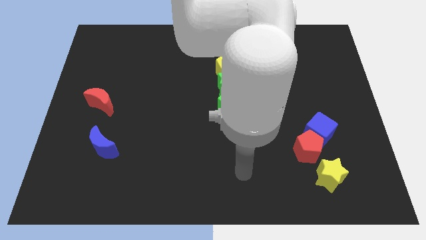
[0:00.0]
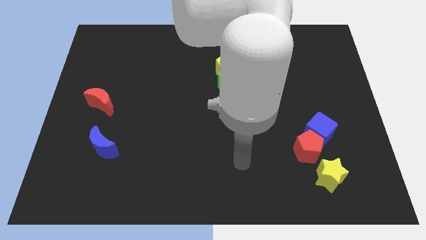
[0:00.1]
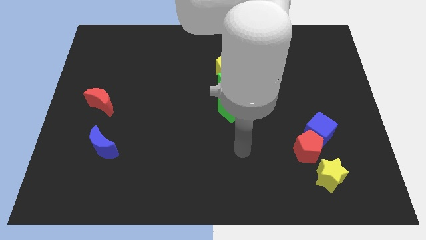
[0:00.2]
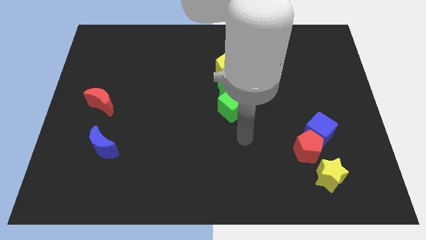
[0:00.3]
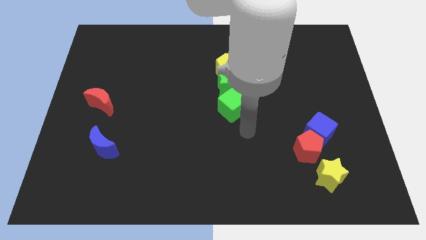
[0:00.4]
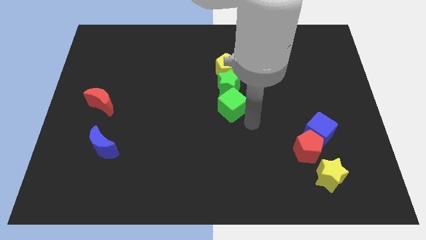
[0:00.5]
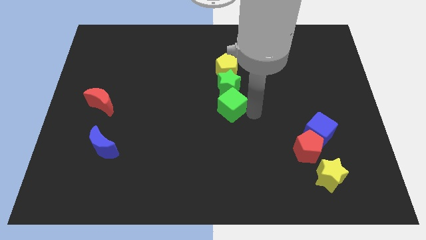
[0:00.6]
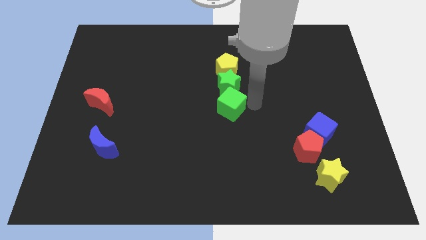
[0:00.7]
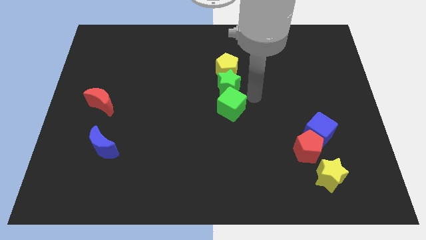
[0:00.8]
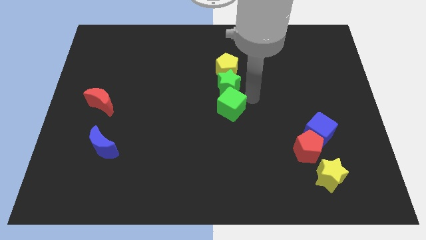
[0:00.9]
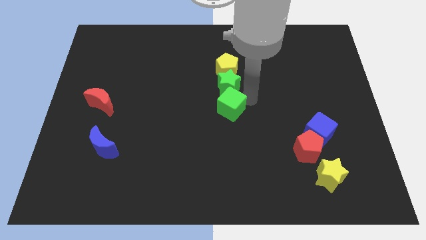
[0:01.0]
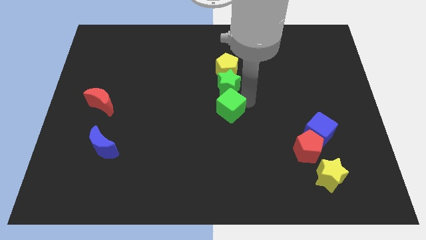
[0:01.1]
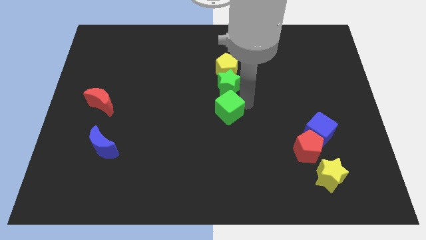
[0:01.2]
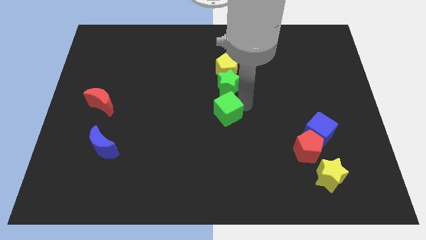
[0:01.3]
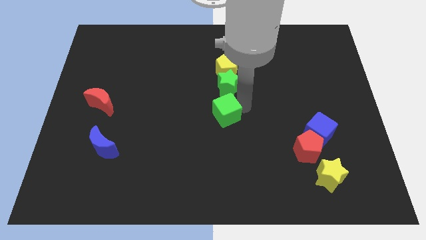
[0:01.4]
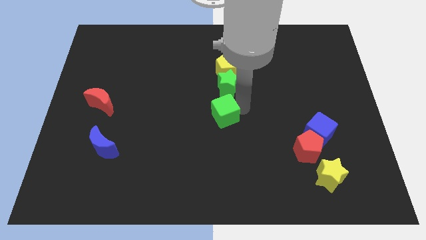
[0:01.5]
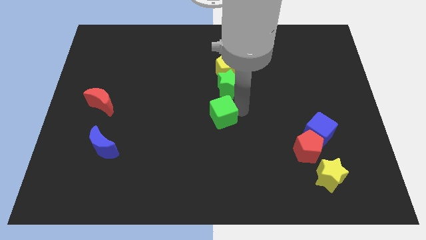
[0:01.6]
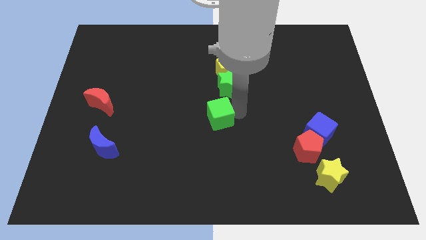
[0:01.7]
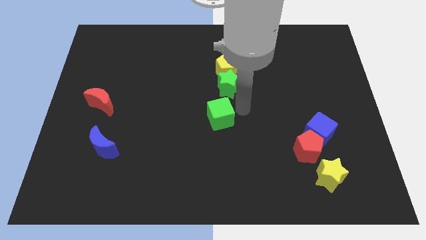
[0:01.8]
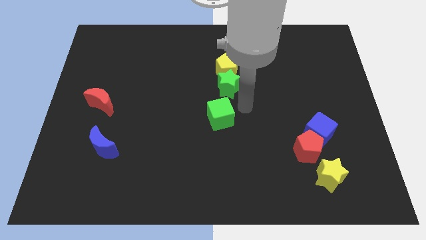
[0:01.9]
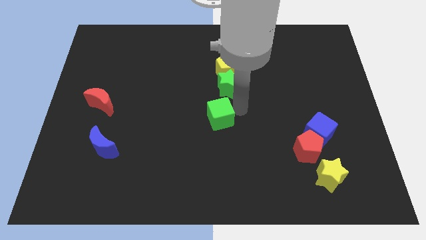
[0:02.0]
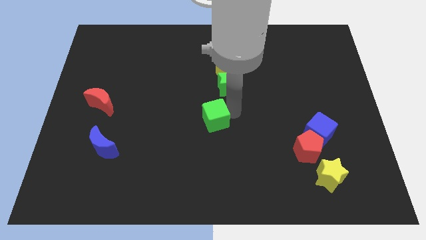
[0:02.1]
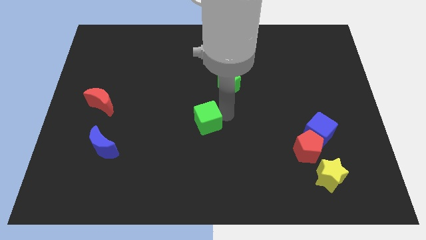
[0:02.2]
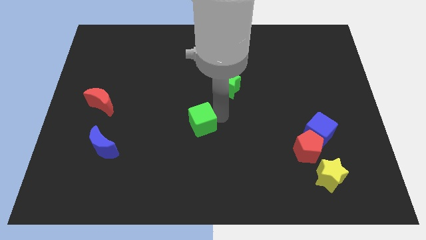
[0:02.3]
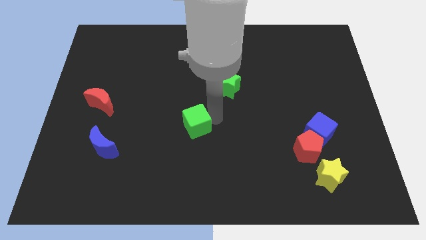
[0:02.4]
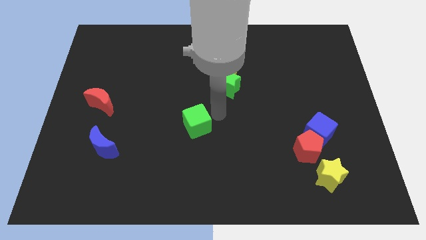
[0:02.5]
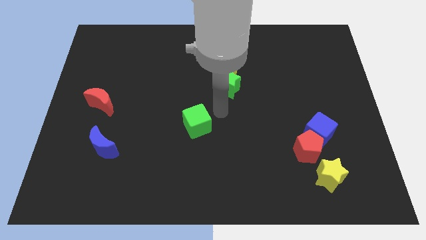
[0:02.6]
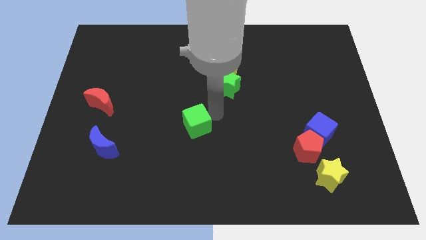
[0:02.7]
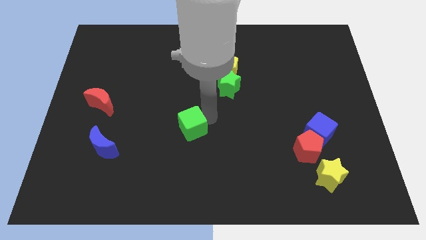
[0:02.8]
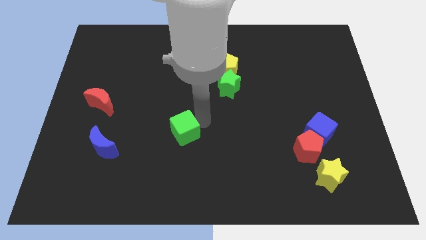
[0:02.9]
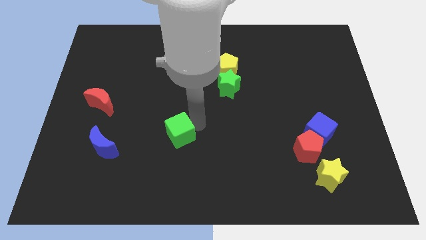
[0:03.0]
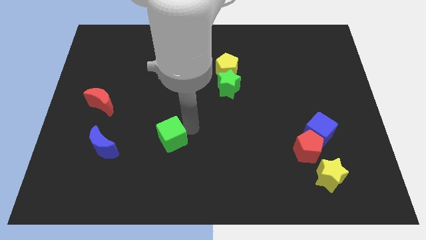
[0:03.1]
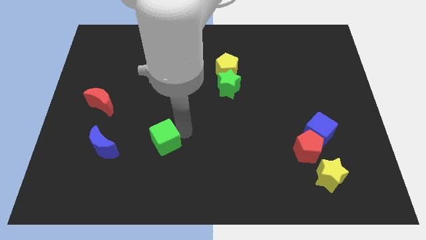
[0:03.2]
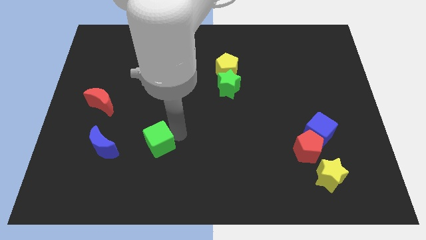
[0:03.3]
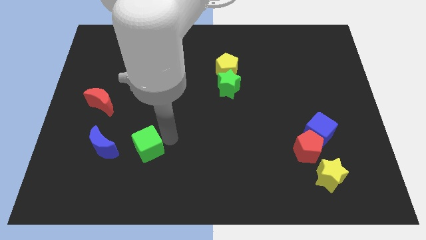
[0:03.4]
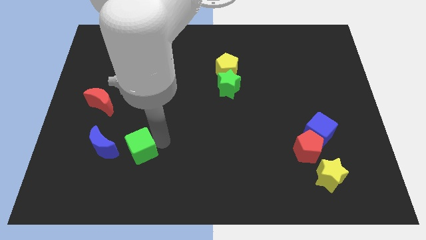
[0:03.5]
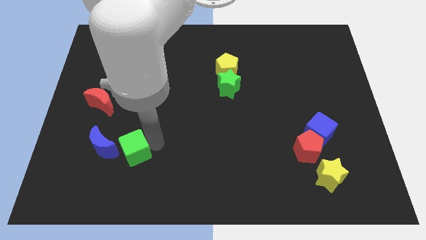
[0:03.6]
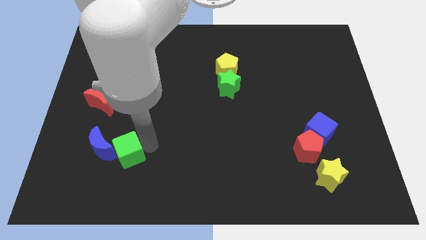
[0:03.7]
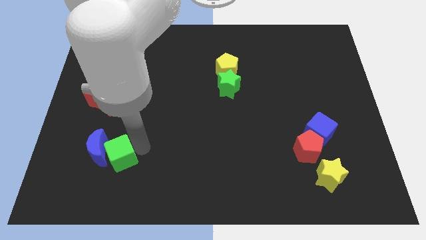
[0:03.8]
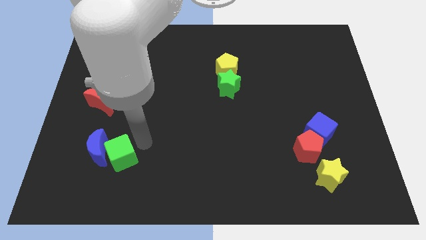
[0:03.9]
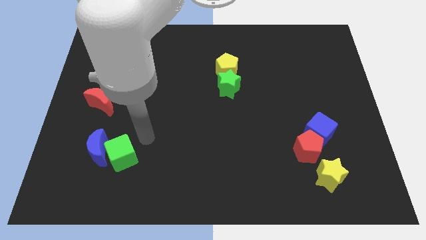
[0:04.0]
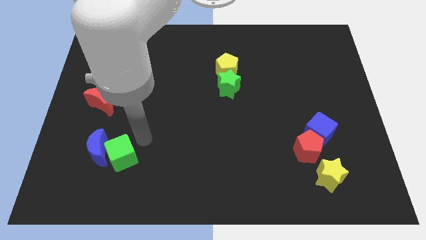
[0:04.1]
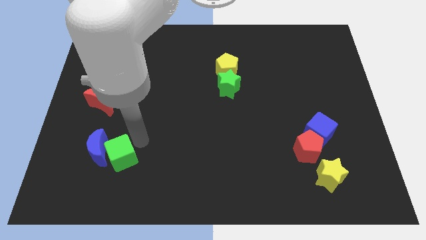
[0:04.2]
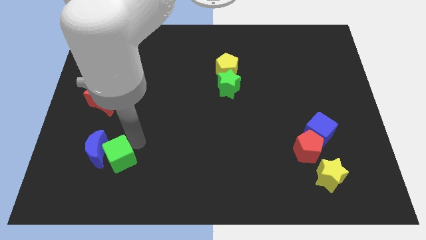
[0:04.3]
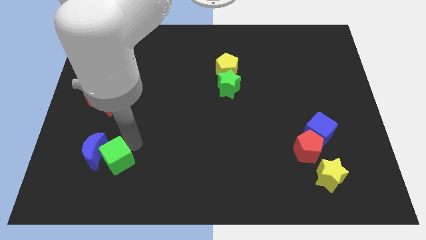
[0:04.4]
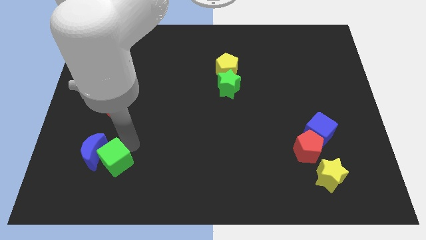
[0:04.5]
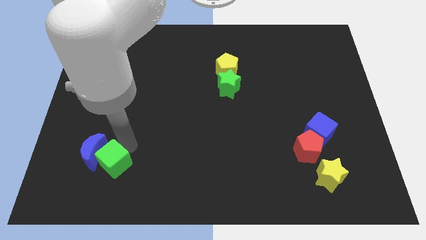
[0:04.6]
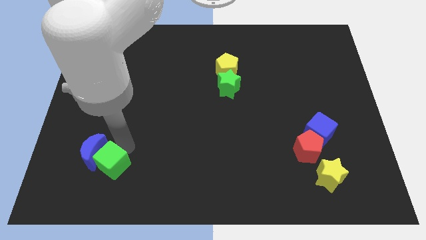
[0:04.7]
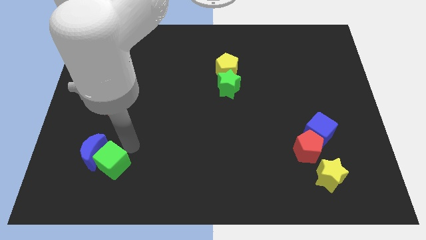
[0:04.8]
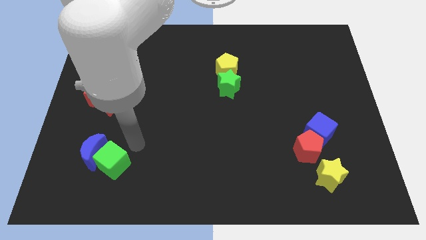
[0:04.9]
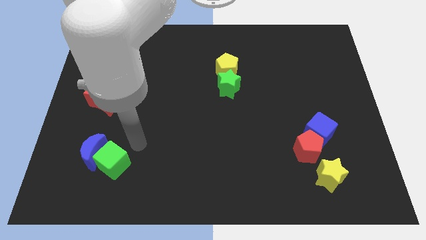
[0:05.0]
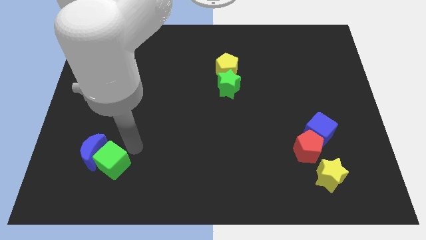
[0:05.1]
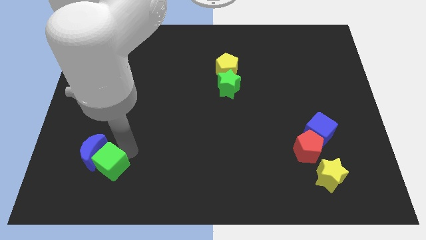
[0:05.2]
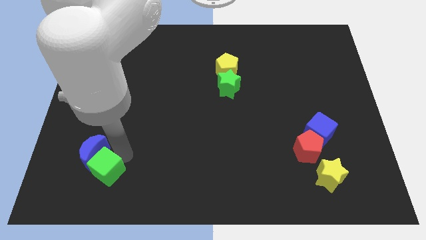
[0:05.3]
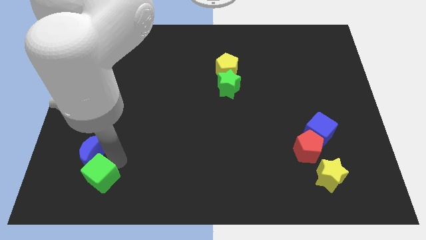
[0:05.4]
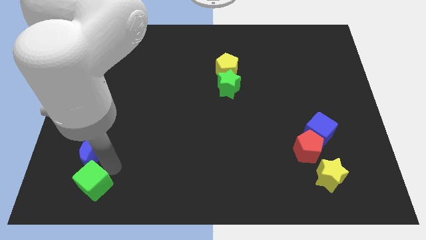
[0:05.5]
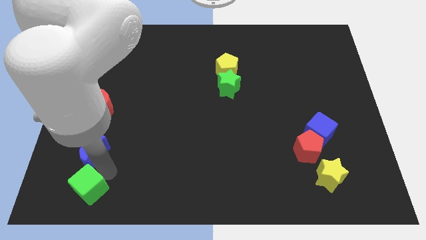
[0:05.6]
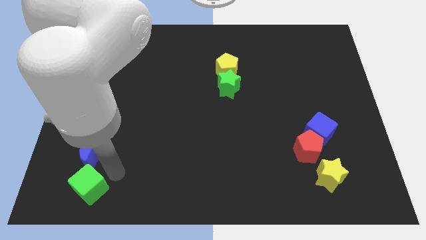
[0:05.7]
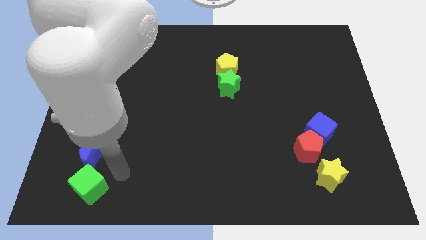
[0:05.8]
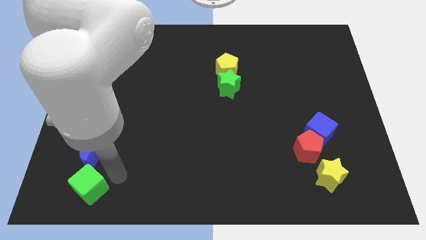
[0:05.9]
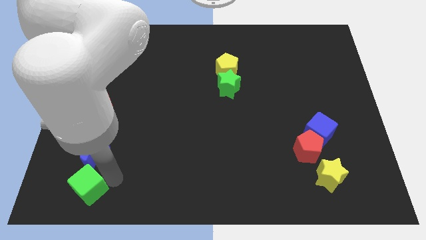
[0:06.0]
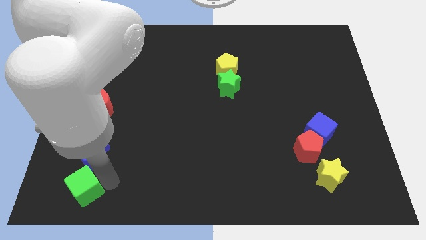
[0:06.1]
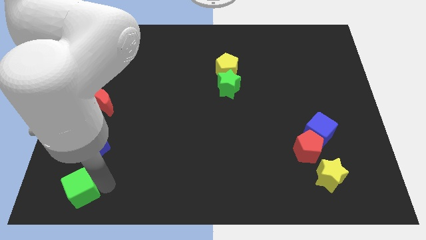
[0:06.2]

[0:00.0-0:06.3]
slide the green cube to the bottom left
